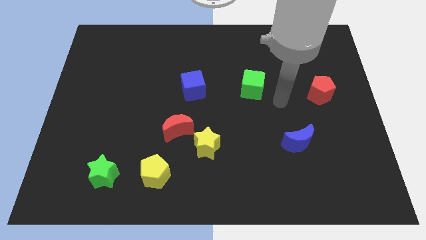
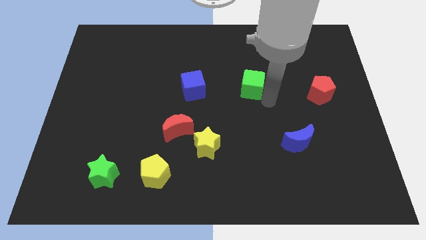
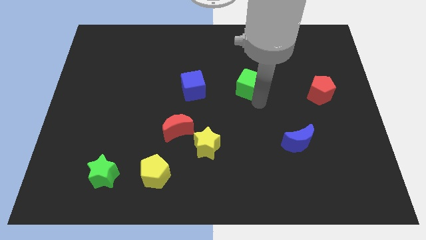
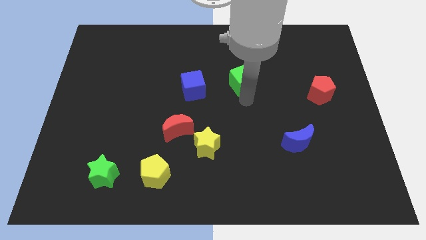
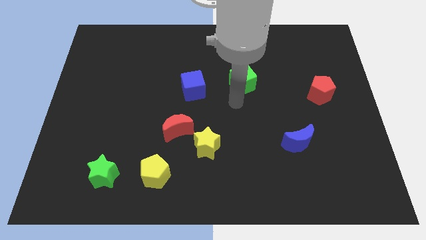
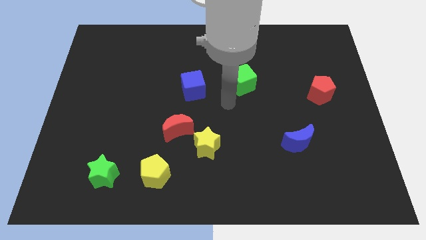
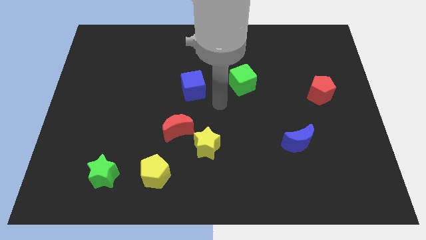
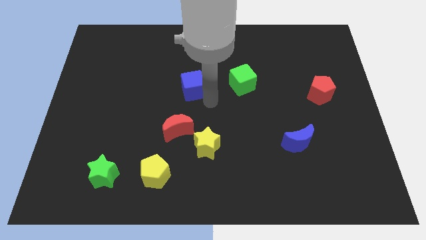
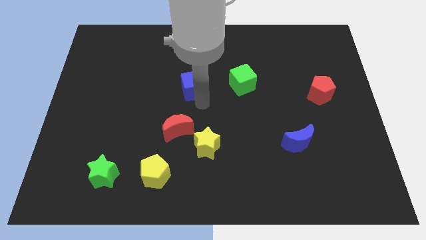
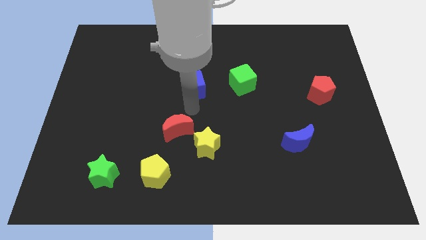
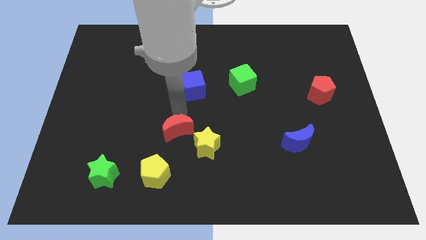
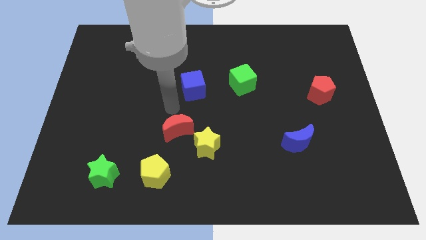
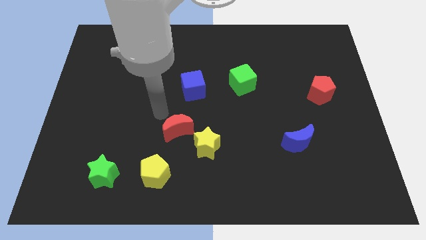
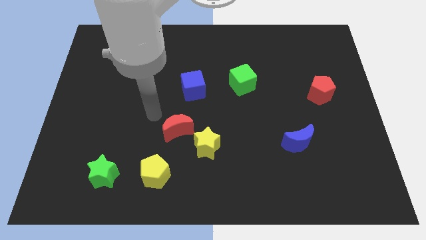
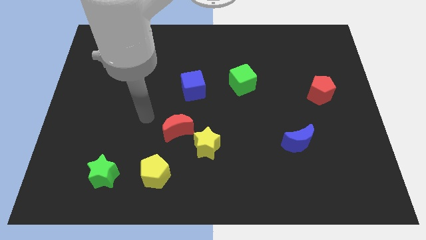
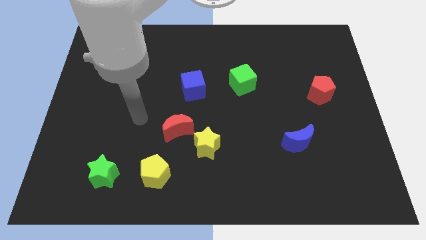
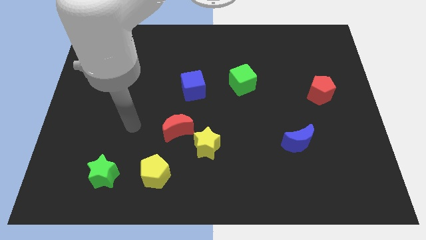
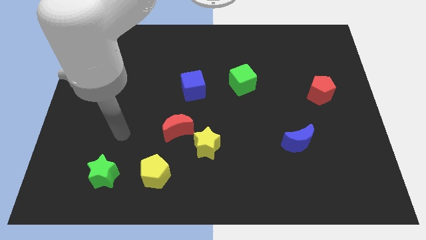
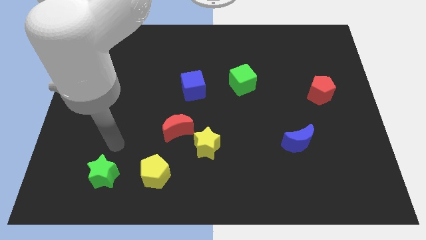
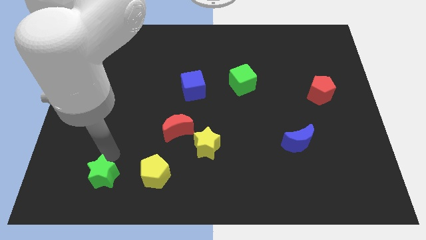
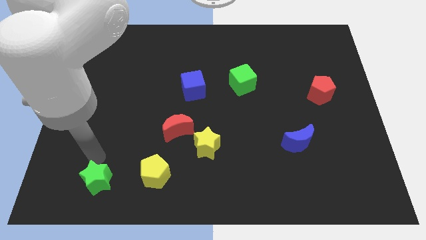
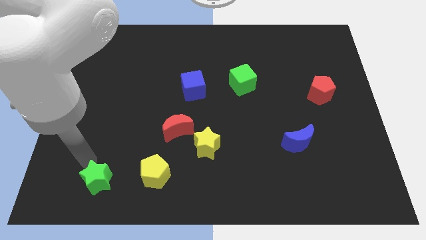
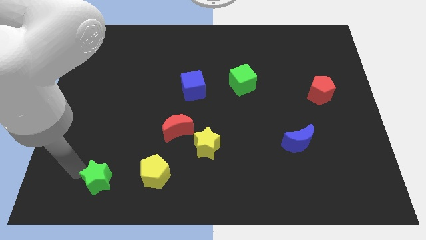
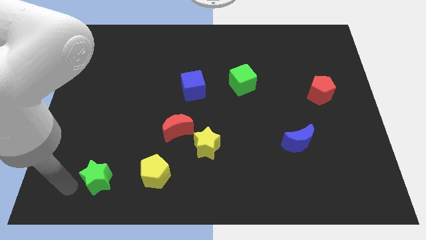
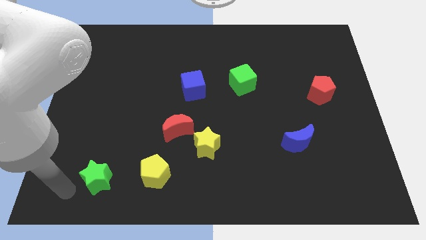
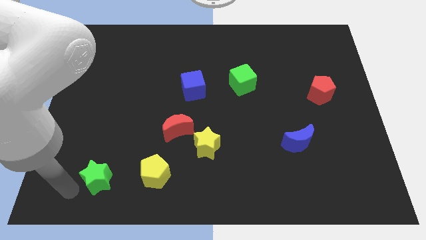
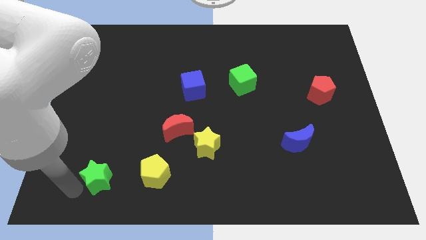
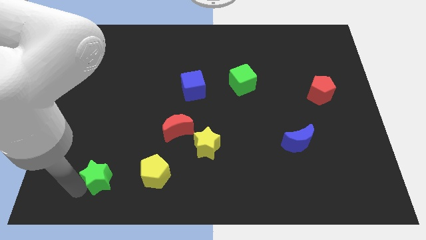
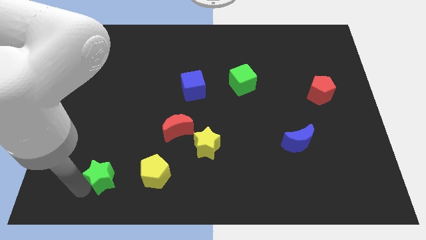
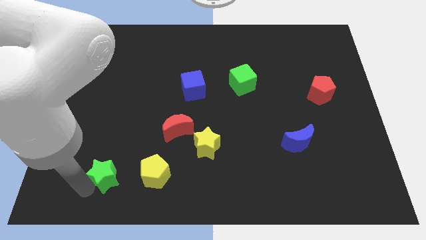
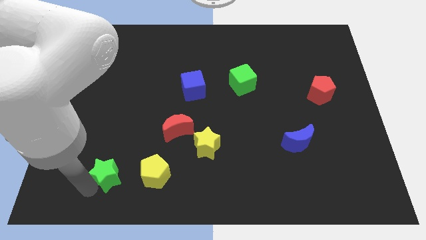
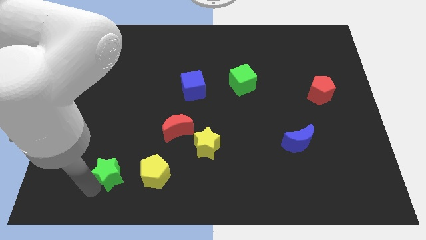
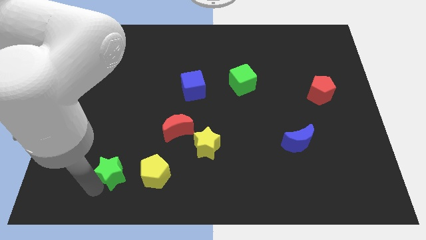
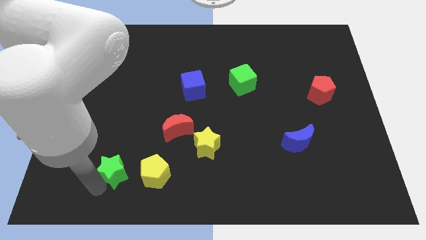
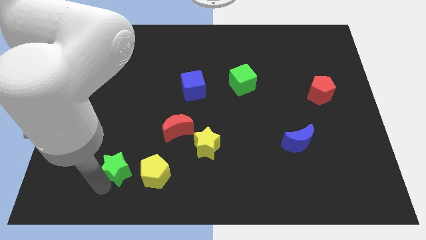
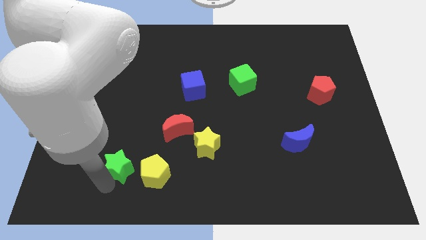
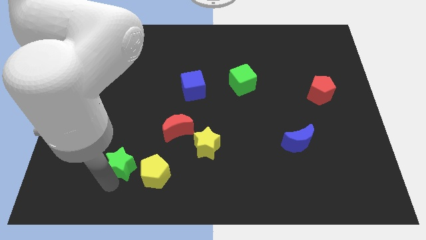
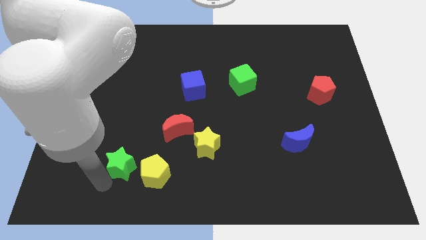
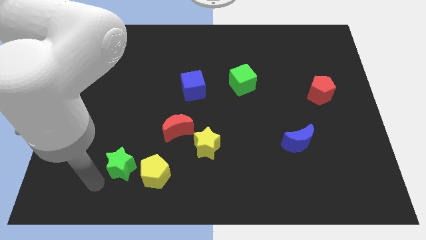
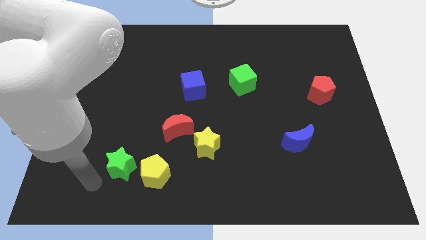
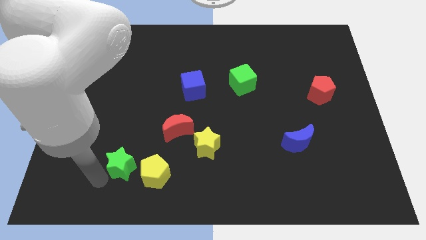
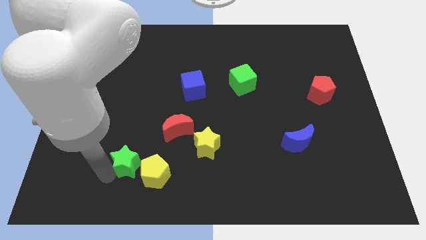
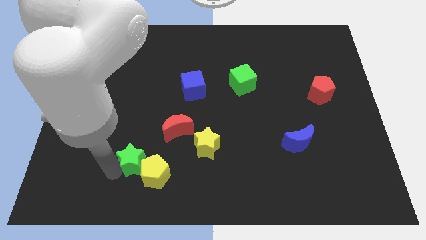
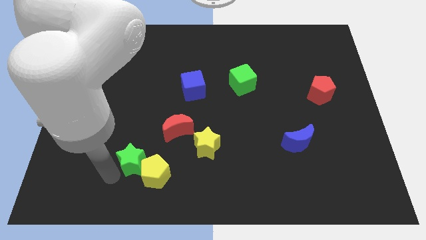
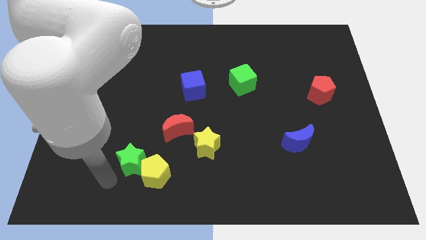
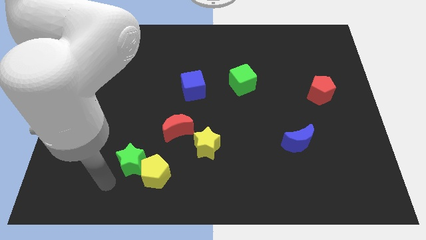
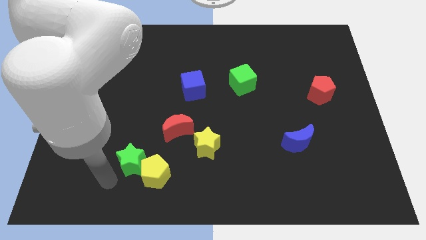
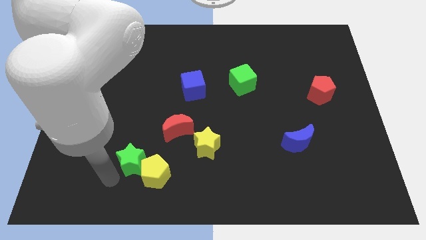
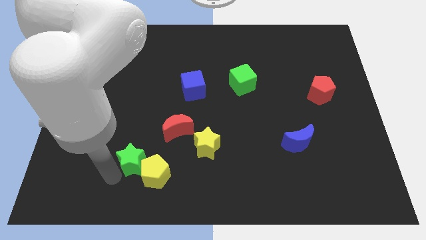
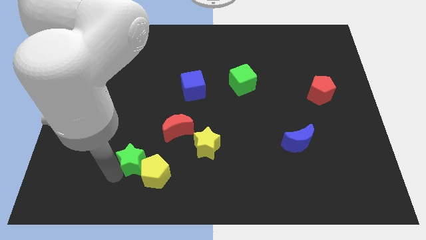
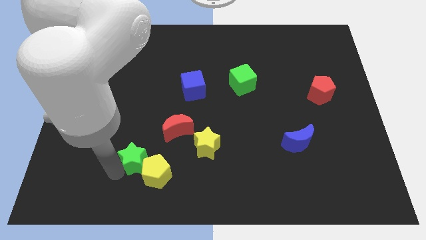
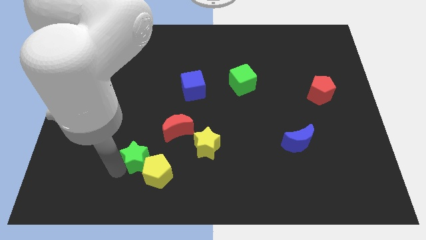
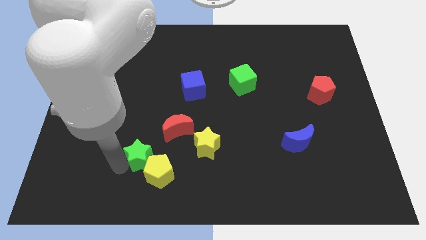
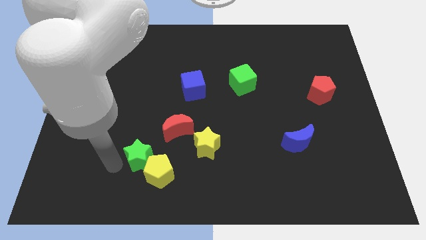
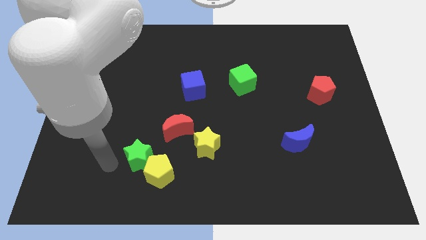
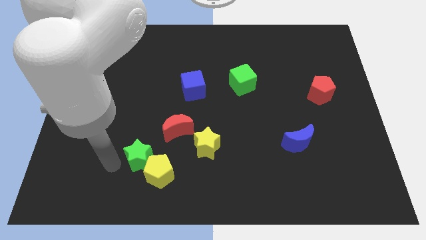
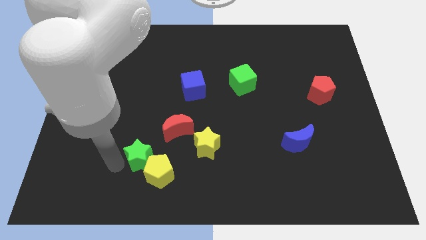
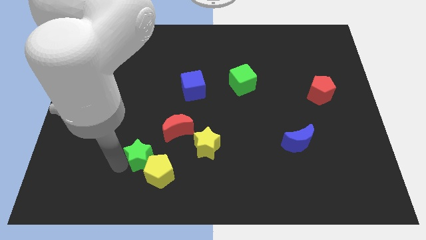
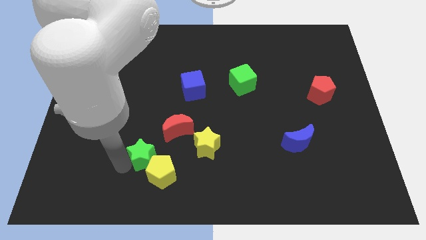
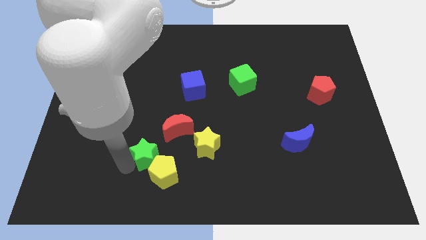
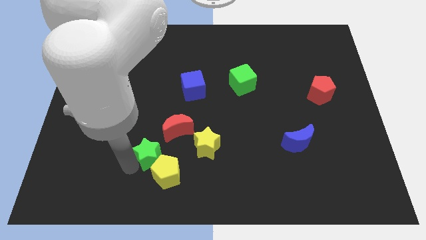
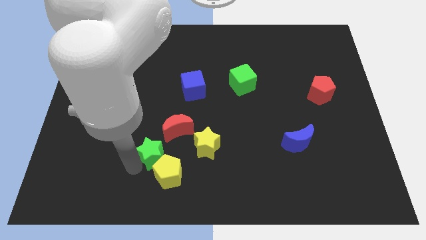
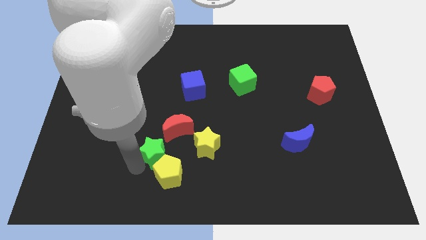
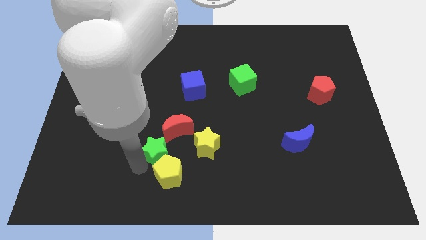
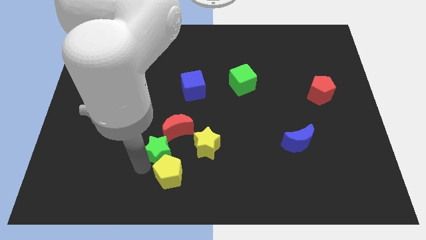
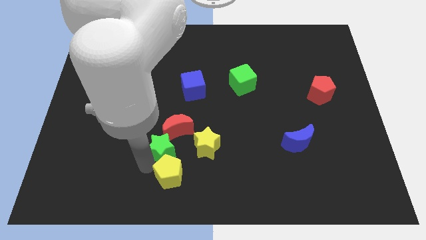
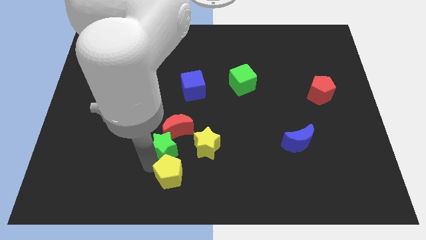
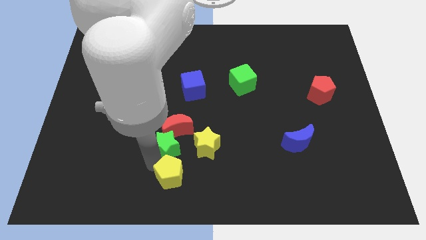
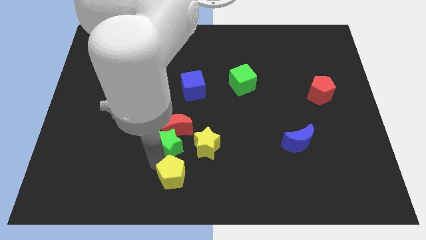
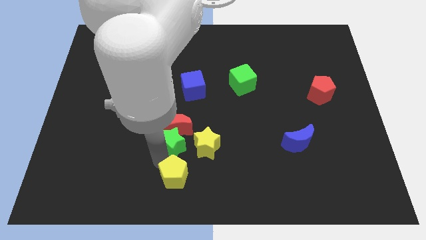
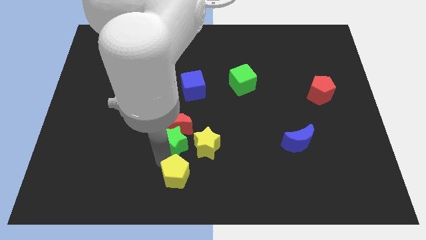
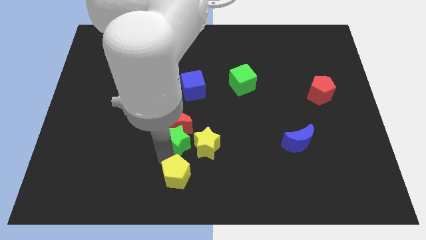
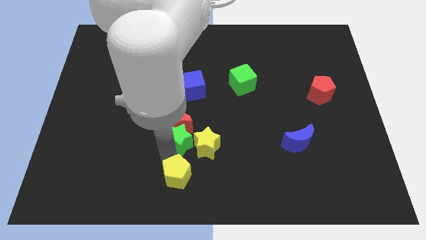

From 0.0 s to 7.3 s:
put the green star to the bottom side of the blue cube
